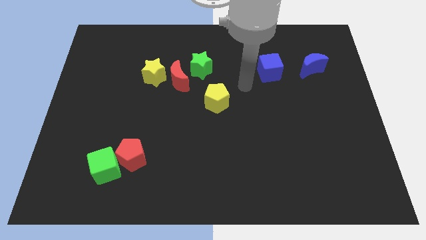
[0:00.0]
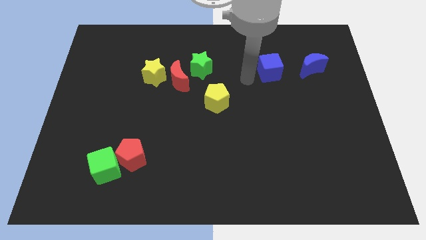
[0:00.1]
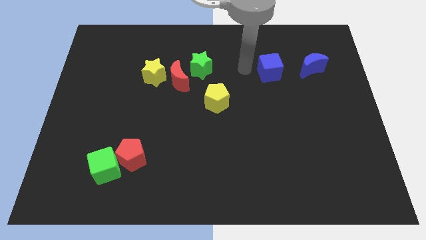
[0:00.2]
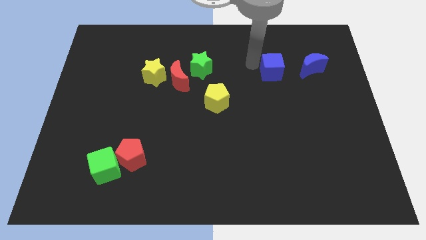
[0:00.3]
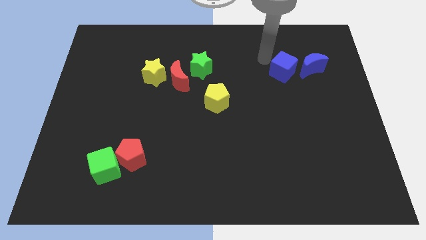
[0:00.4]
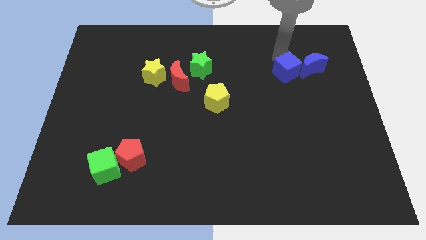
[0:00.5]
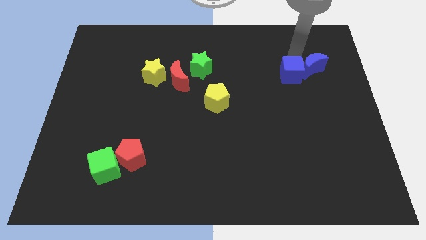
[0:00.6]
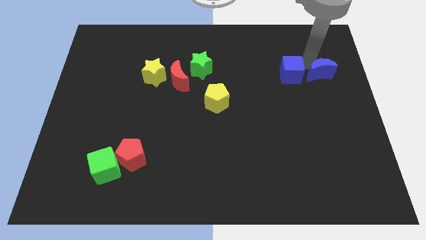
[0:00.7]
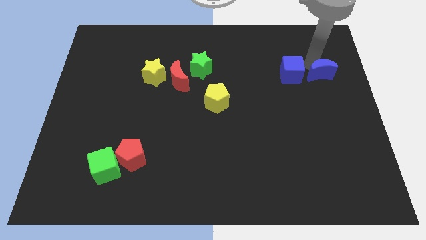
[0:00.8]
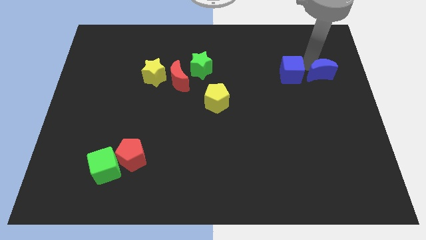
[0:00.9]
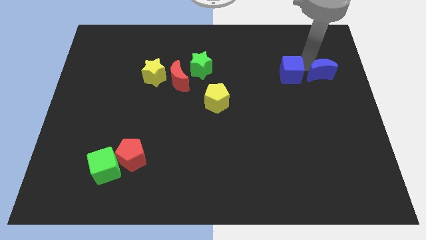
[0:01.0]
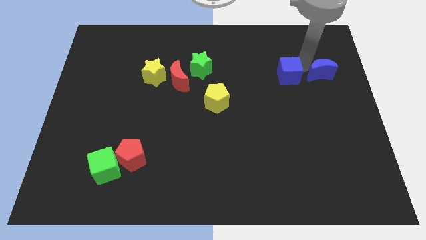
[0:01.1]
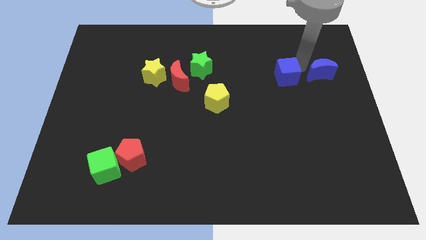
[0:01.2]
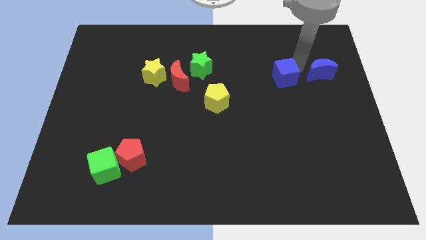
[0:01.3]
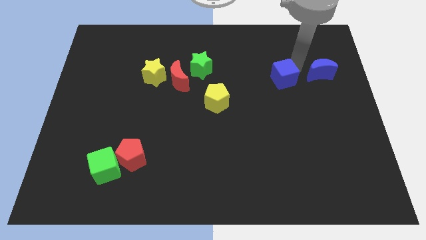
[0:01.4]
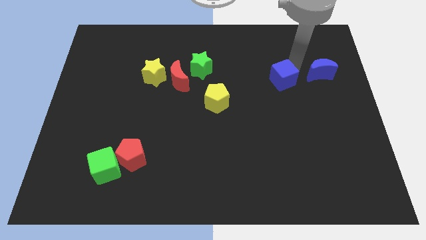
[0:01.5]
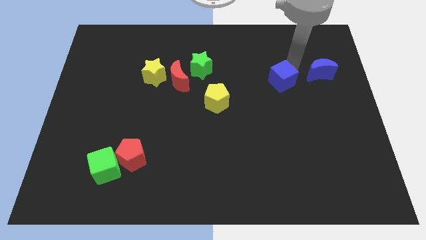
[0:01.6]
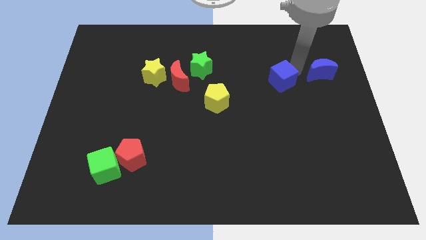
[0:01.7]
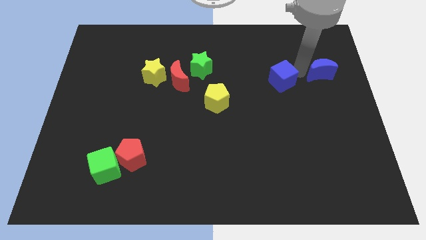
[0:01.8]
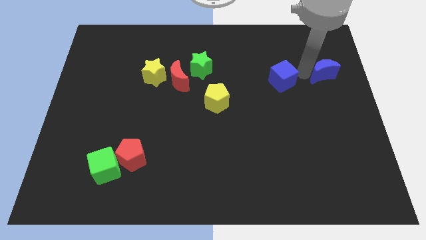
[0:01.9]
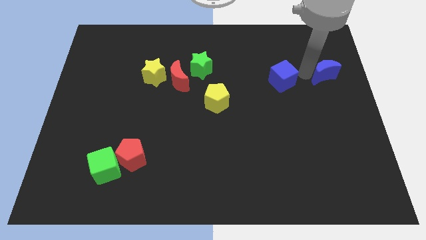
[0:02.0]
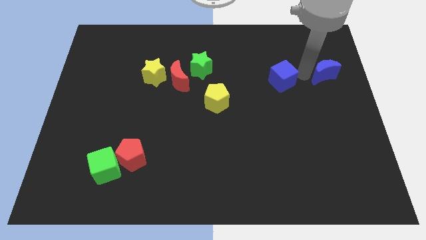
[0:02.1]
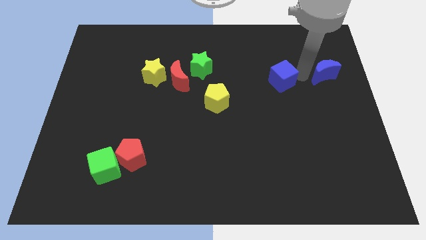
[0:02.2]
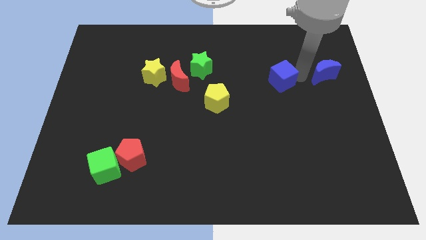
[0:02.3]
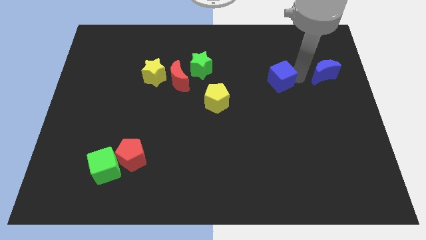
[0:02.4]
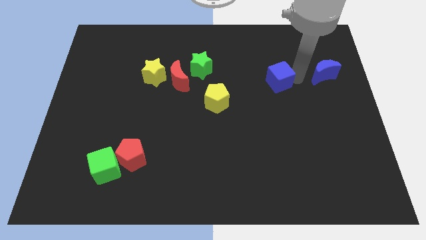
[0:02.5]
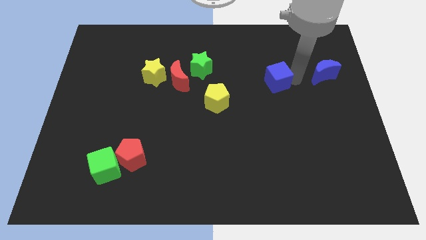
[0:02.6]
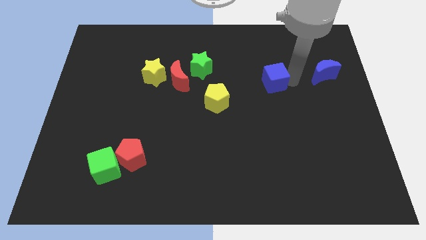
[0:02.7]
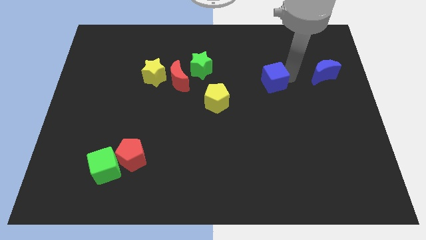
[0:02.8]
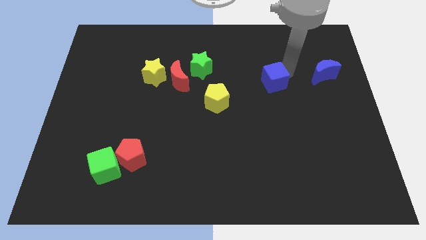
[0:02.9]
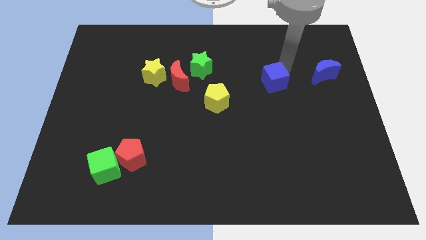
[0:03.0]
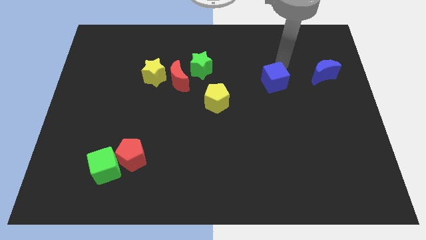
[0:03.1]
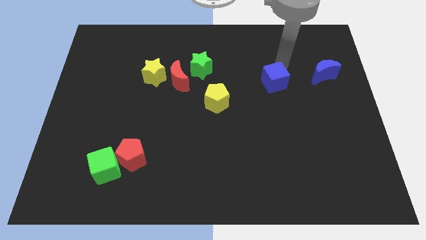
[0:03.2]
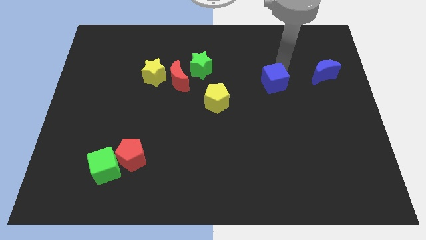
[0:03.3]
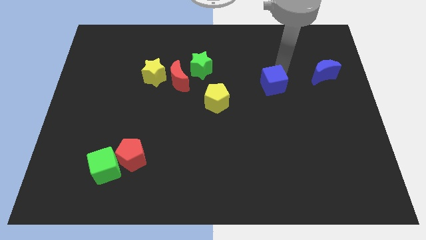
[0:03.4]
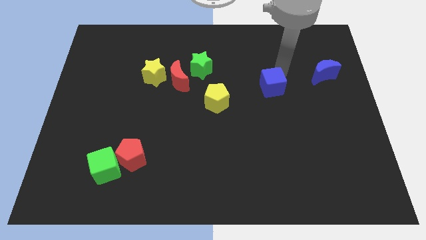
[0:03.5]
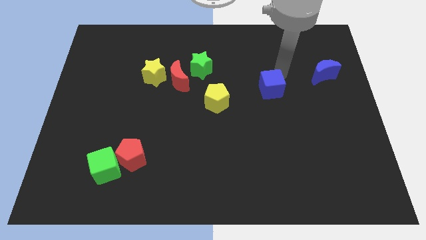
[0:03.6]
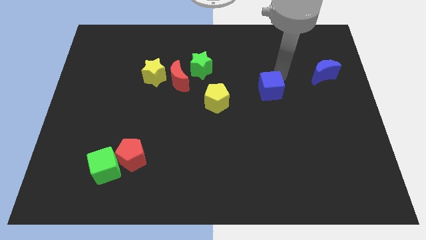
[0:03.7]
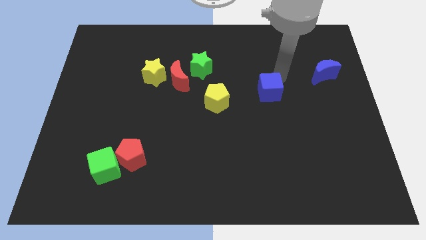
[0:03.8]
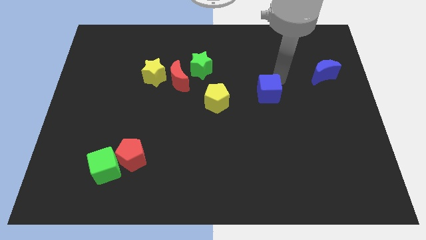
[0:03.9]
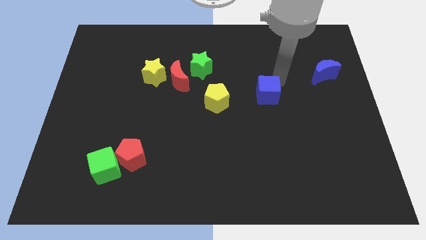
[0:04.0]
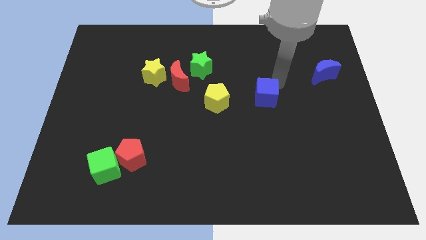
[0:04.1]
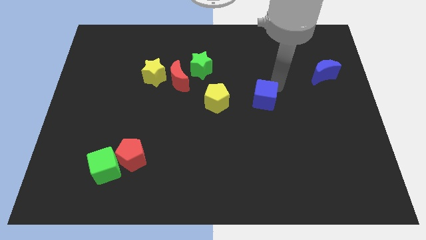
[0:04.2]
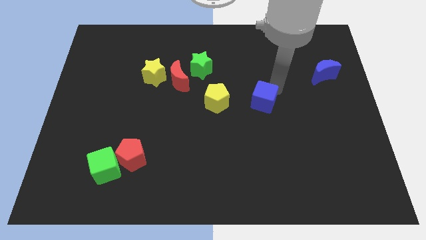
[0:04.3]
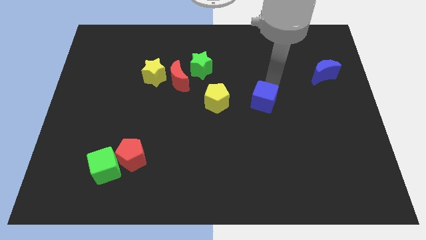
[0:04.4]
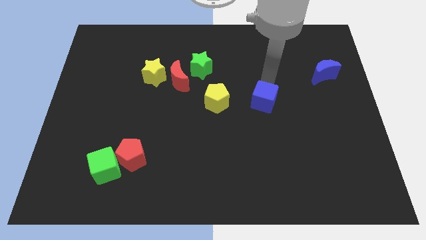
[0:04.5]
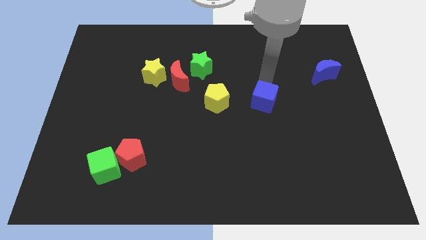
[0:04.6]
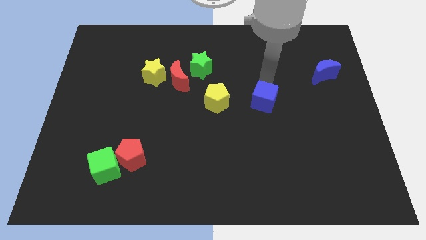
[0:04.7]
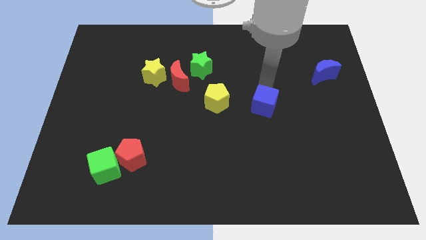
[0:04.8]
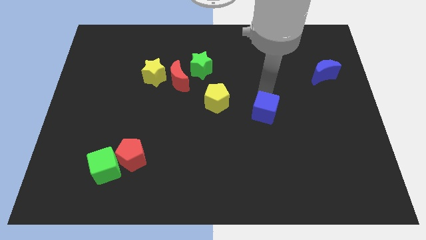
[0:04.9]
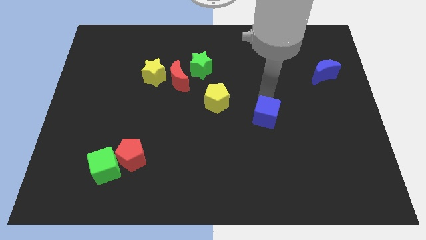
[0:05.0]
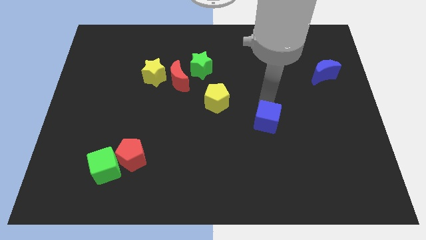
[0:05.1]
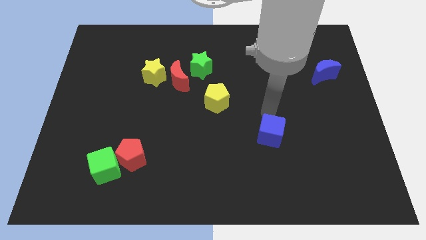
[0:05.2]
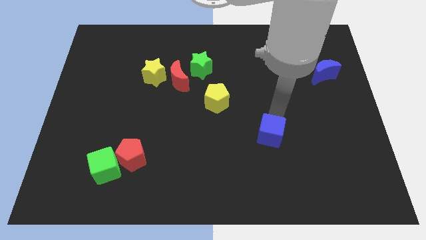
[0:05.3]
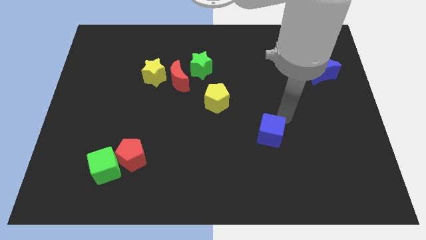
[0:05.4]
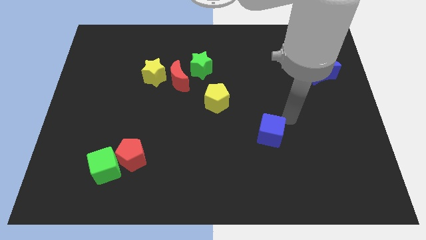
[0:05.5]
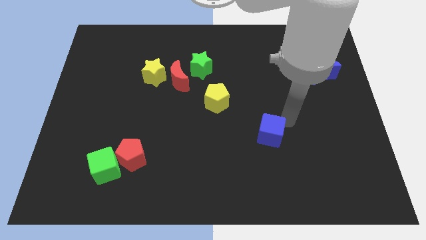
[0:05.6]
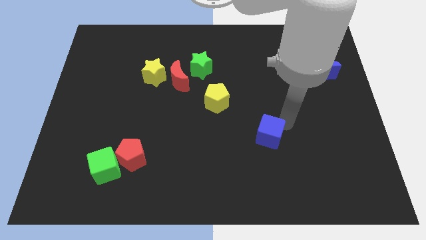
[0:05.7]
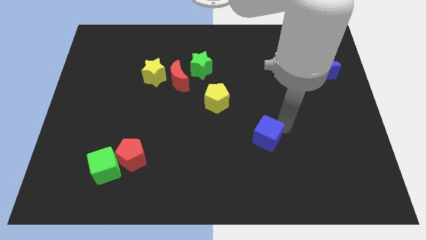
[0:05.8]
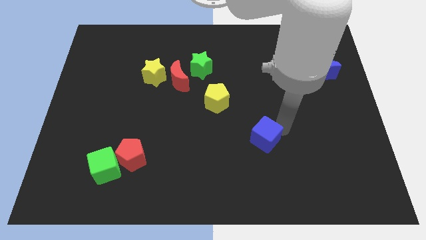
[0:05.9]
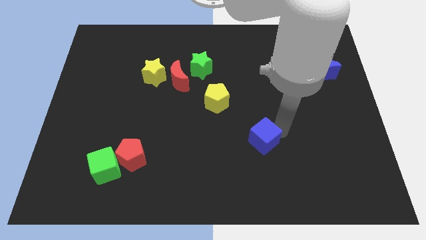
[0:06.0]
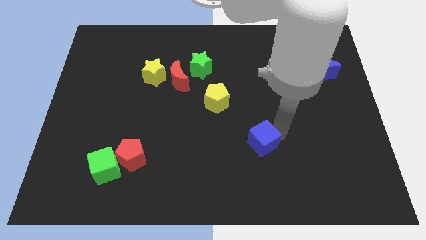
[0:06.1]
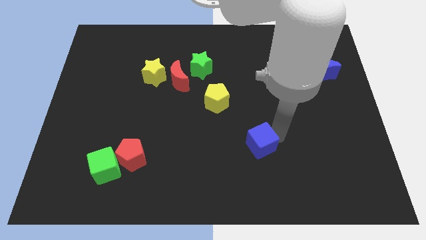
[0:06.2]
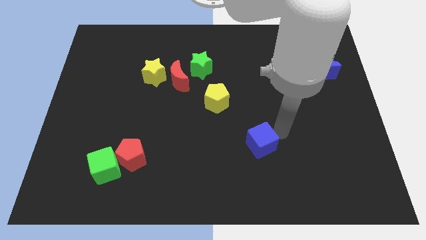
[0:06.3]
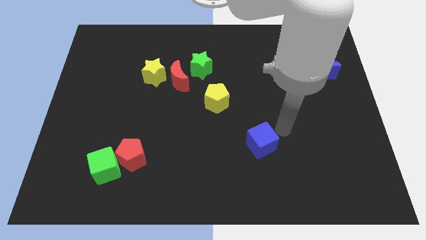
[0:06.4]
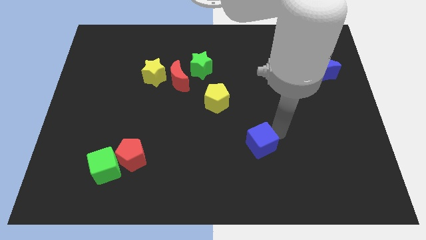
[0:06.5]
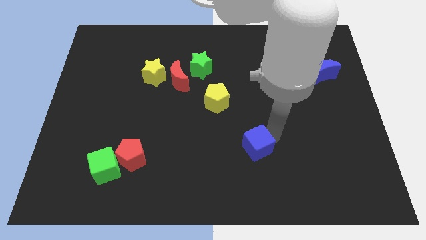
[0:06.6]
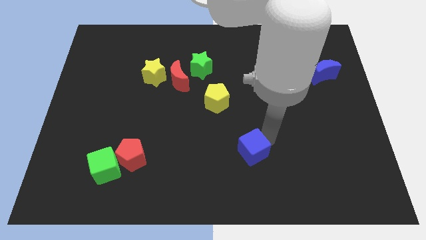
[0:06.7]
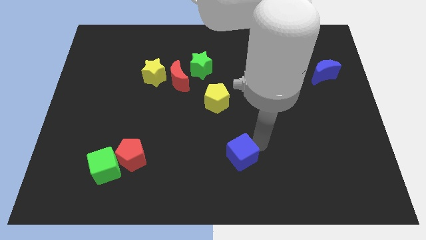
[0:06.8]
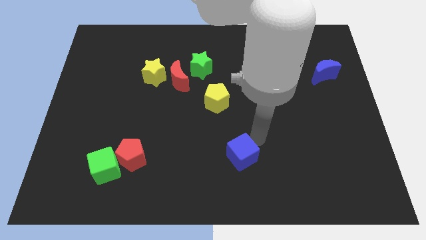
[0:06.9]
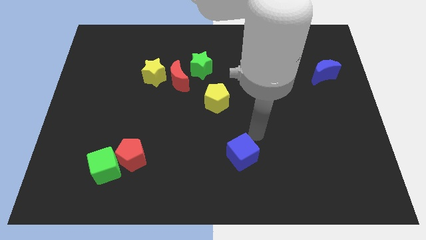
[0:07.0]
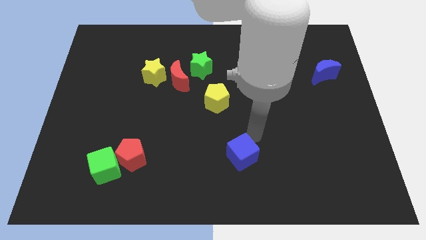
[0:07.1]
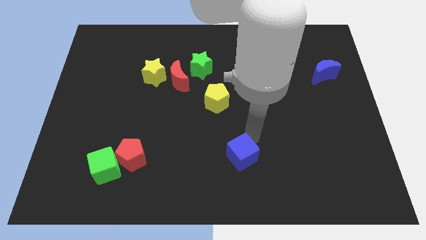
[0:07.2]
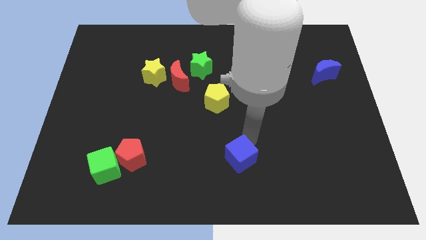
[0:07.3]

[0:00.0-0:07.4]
slide the blue cube to the bottom side
